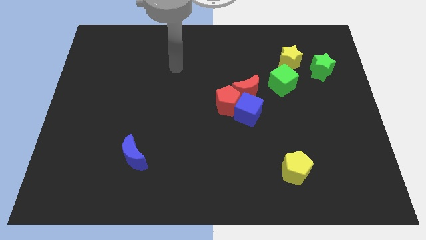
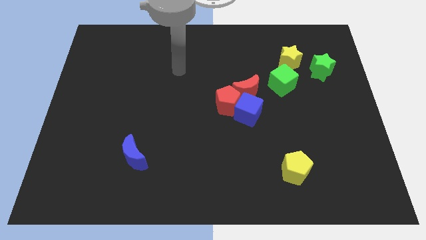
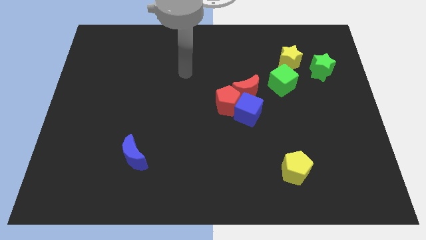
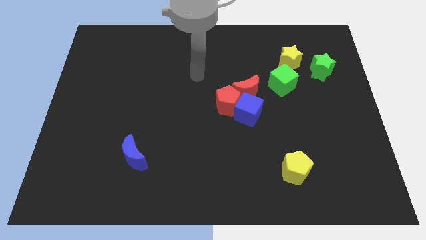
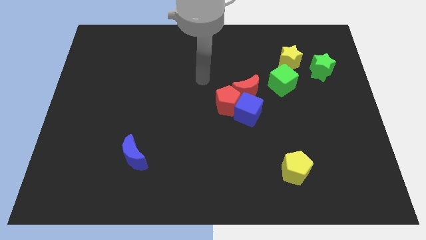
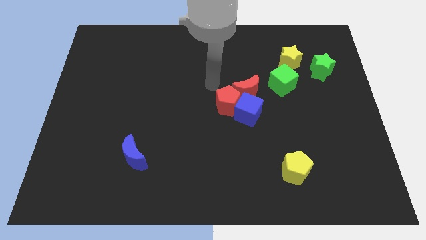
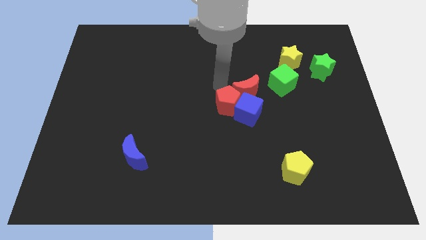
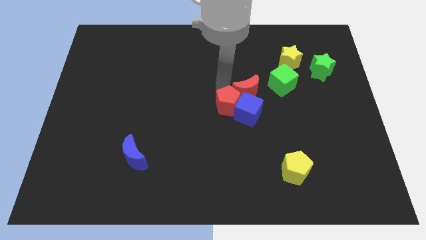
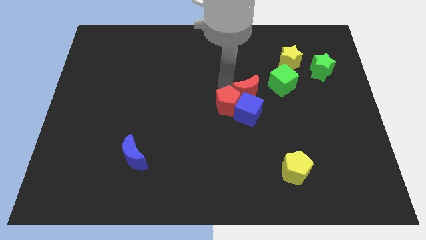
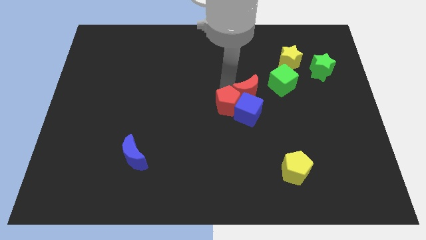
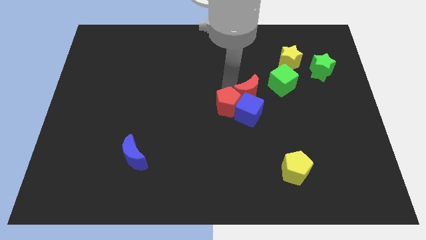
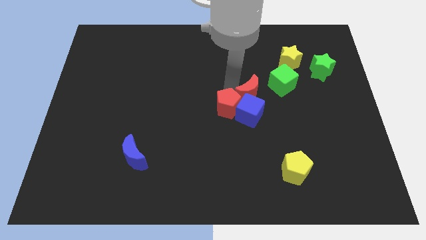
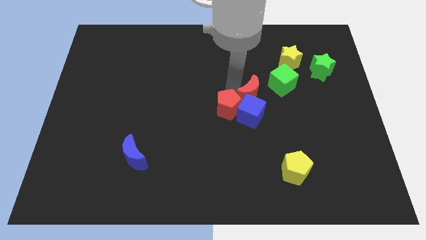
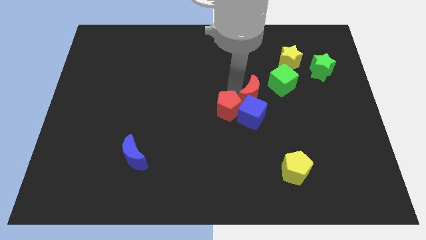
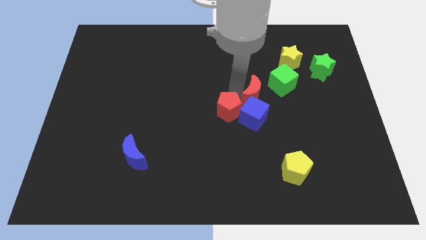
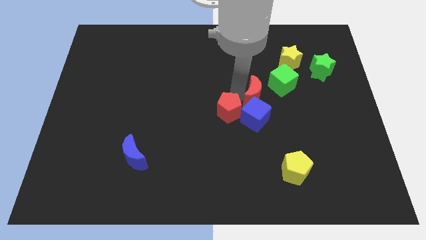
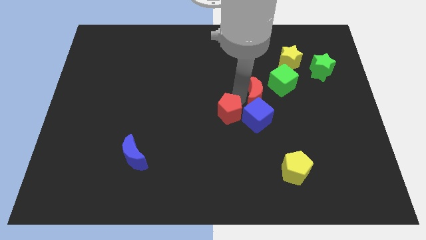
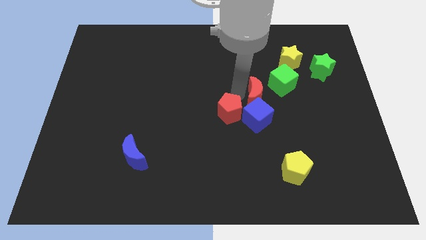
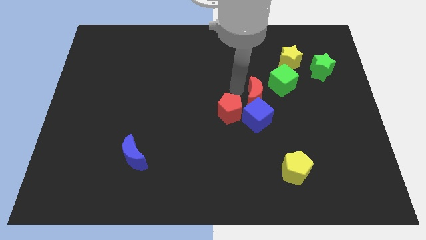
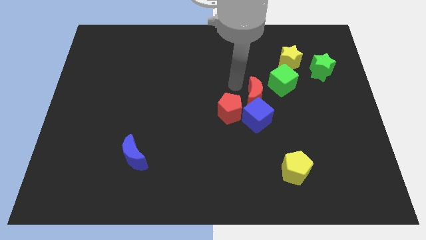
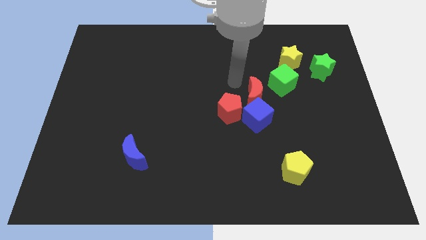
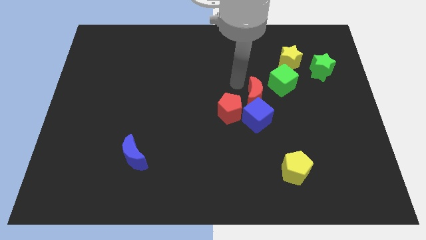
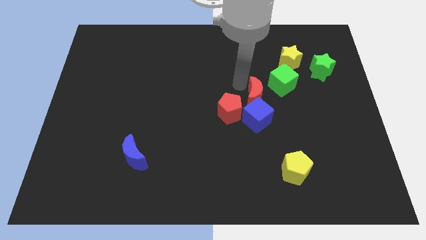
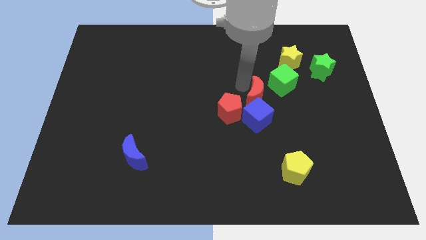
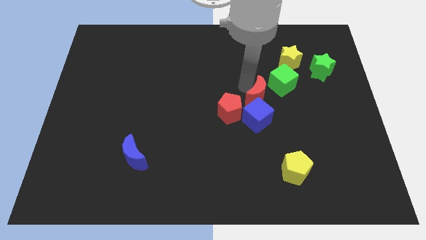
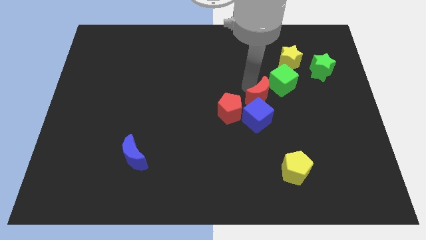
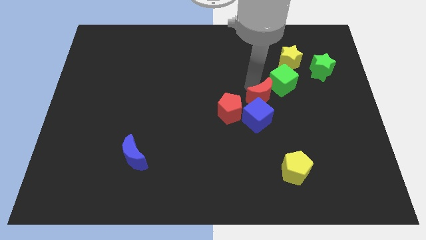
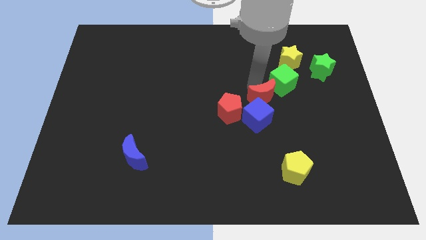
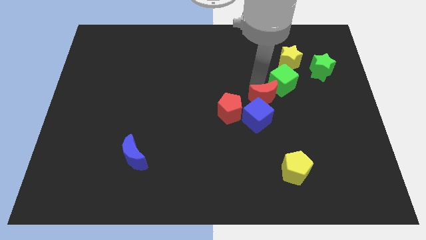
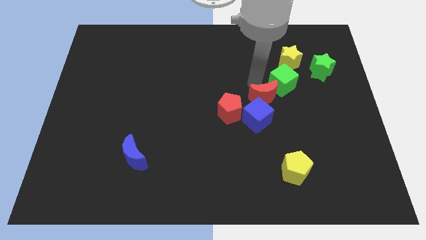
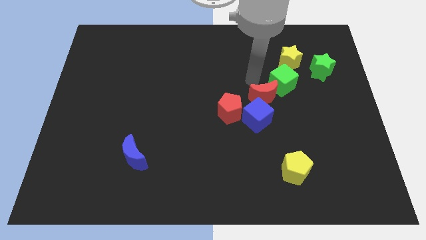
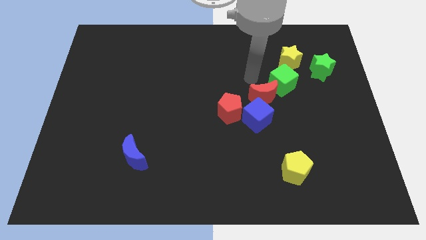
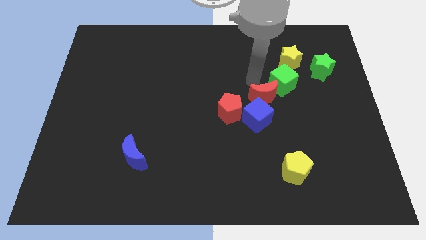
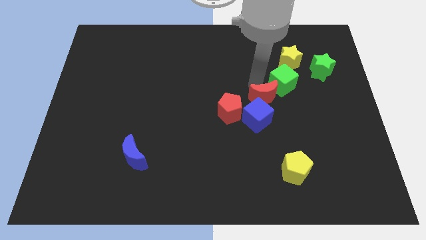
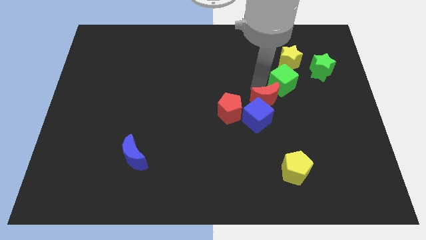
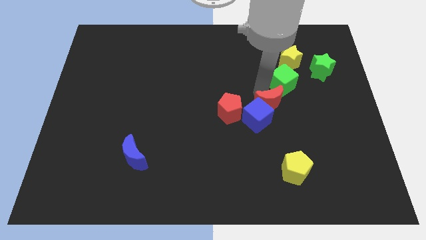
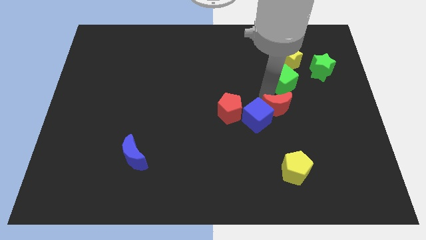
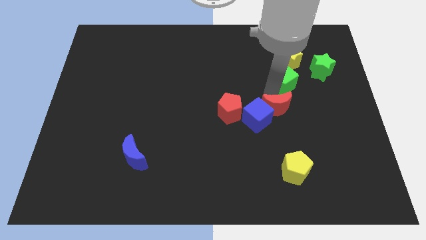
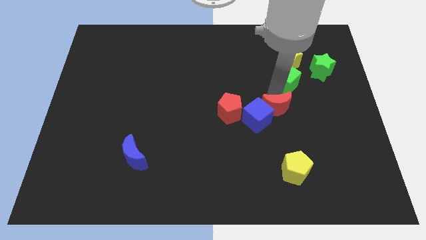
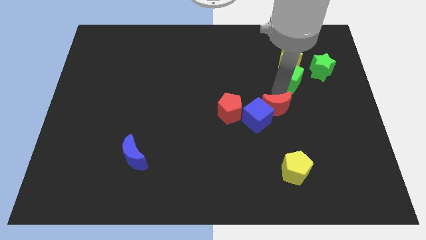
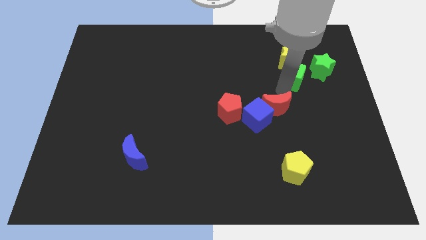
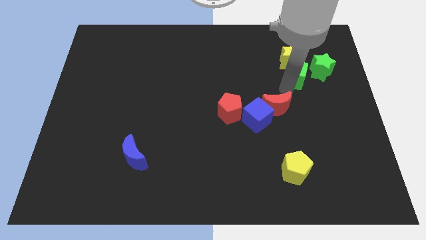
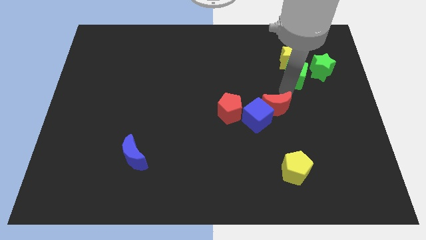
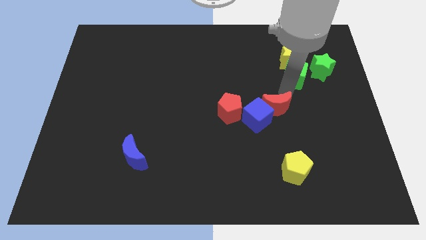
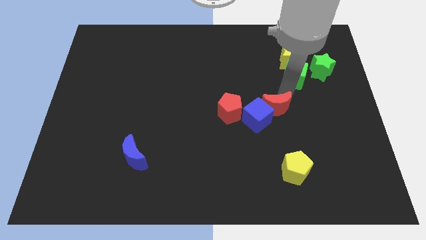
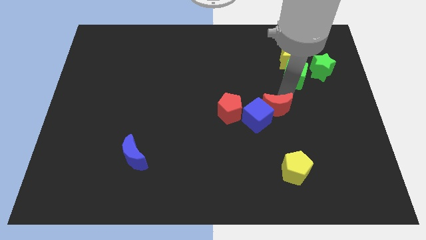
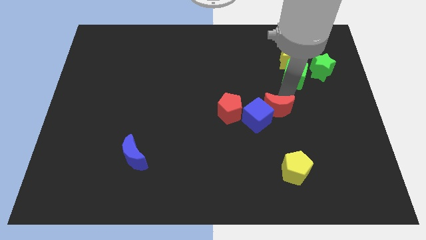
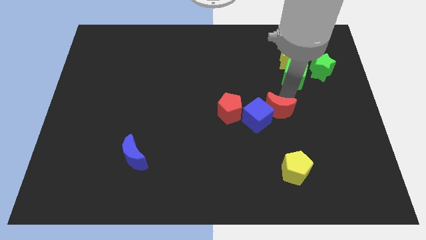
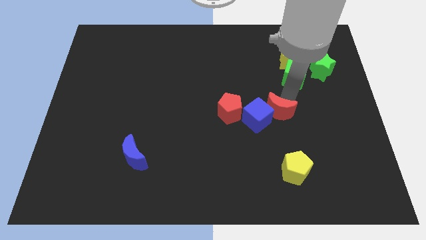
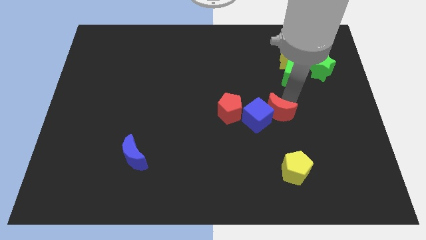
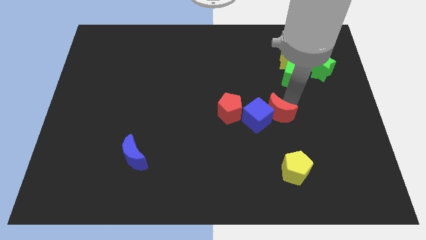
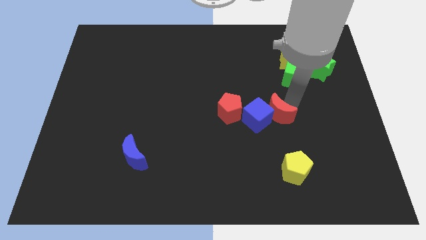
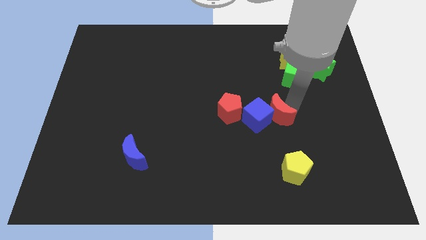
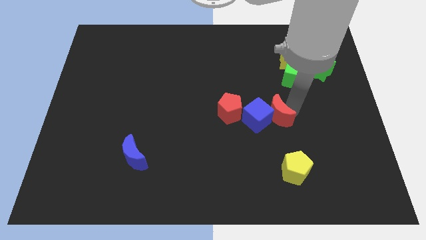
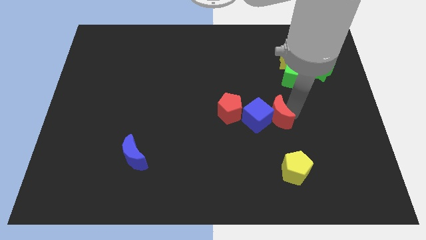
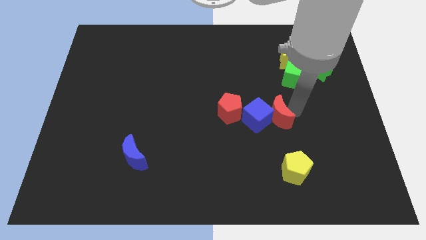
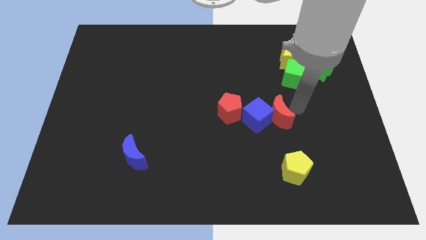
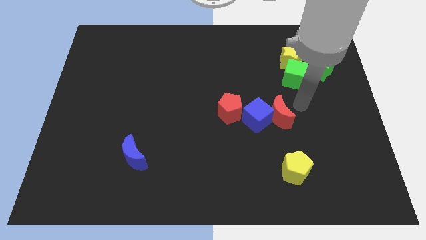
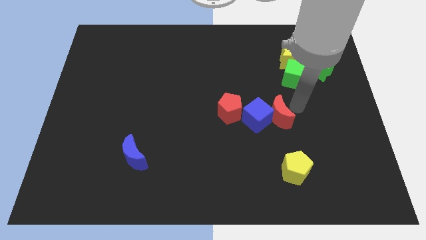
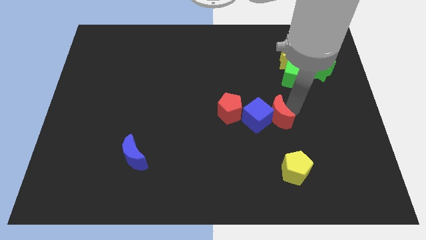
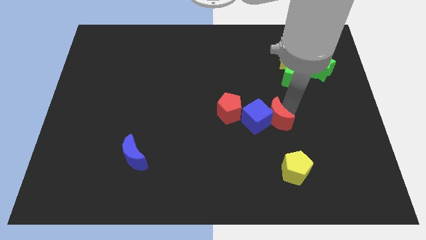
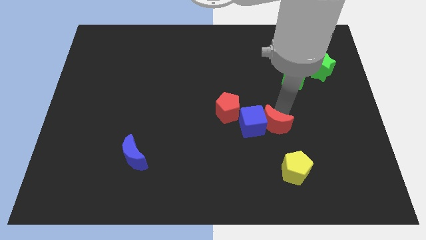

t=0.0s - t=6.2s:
move the red moon downwards a little

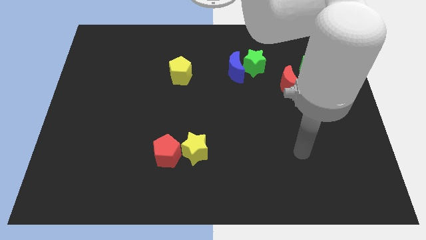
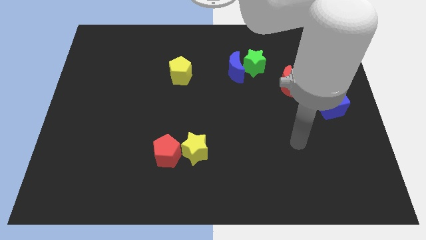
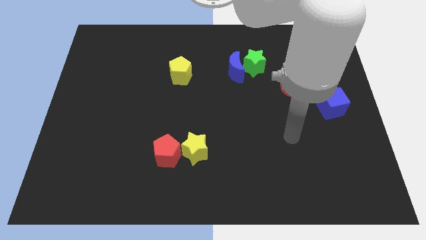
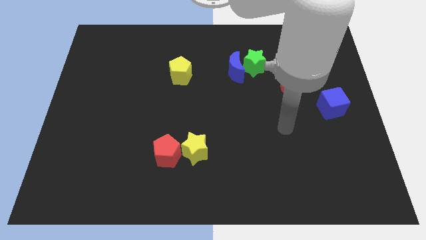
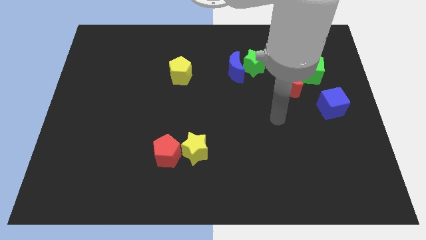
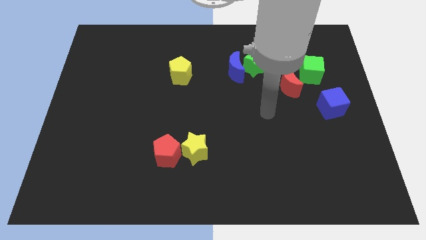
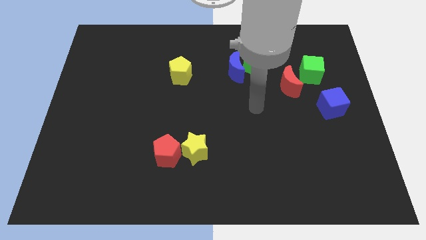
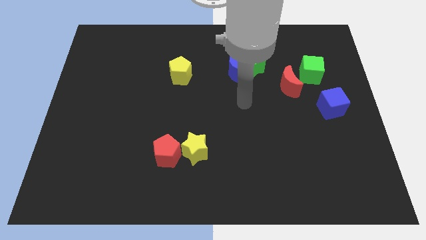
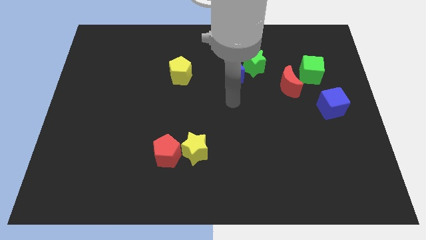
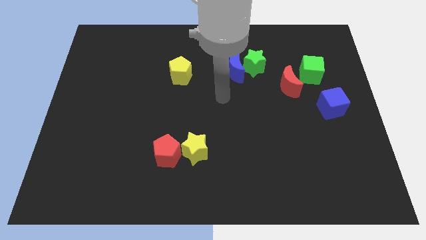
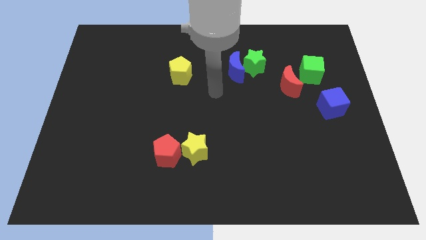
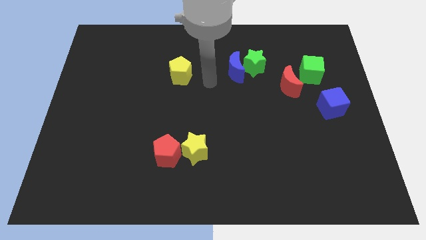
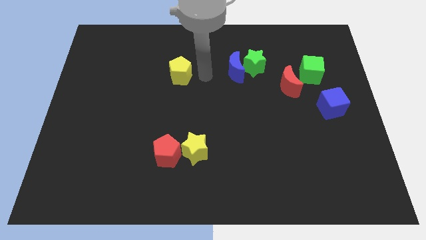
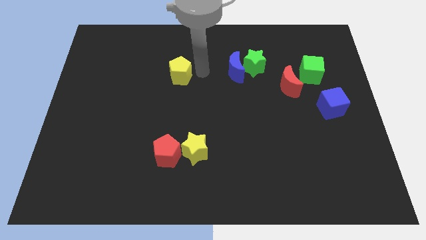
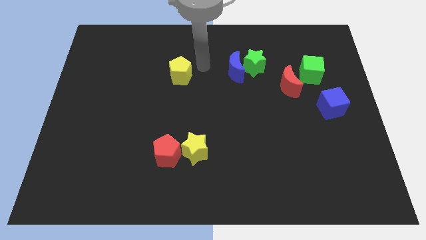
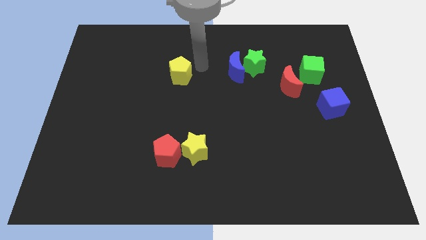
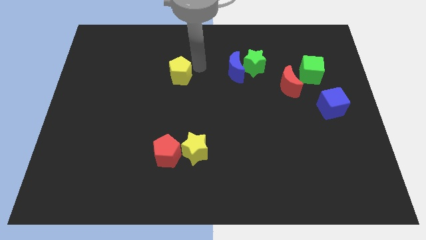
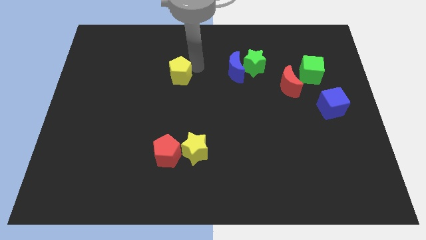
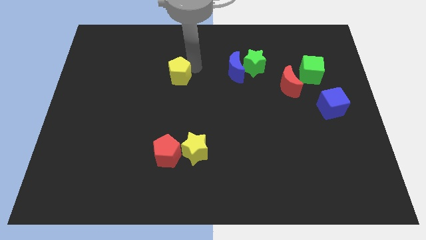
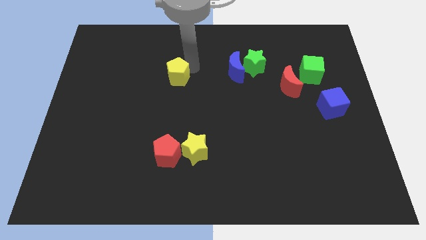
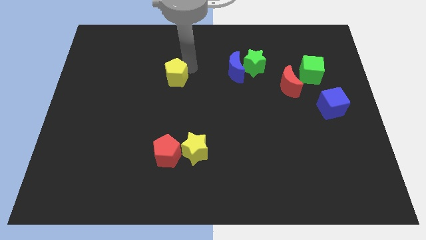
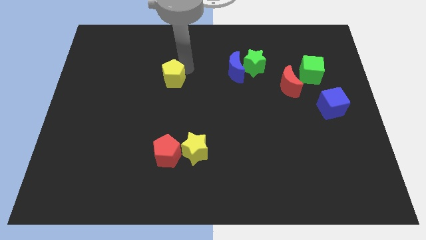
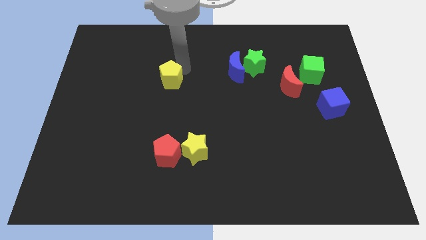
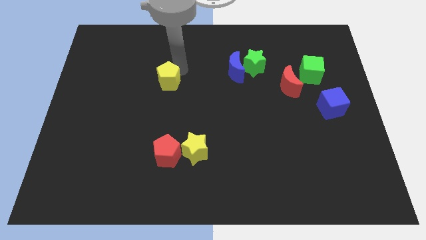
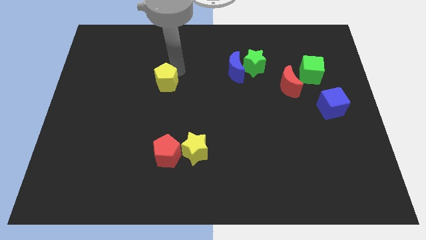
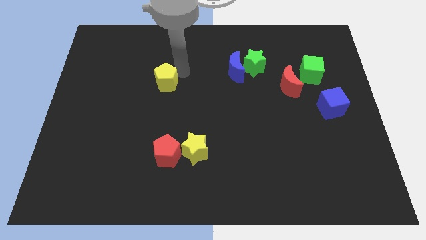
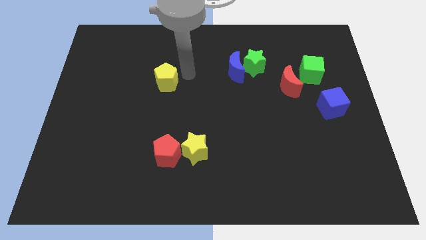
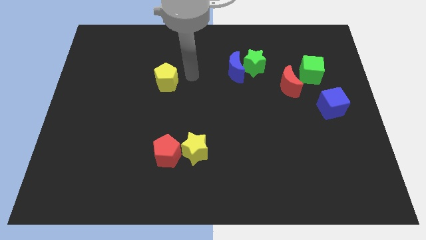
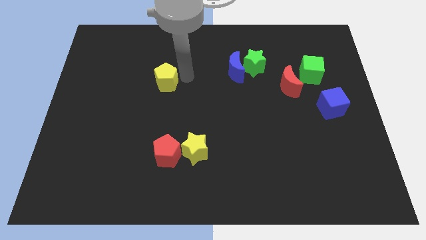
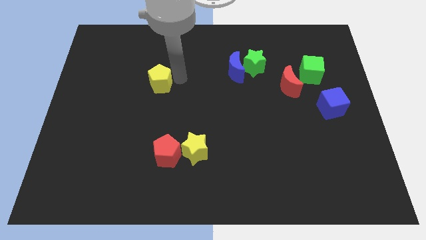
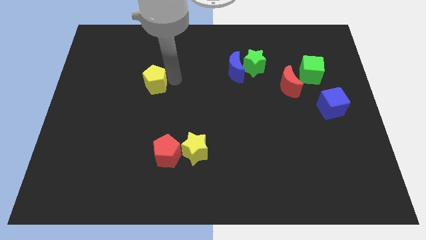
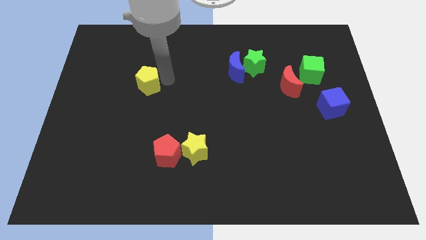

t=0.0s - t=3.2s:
move the yellow pentagon somewhat downwards and then left
